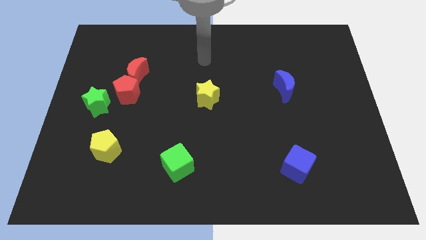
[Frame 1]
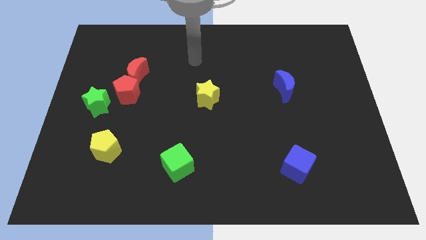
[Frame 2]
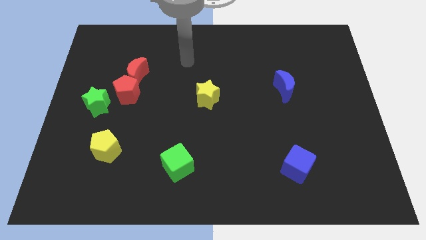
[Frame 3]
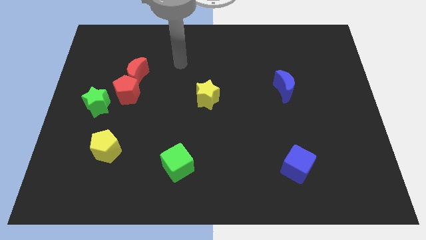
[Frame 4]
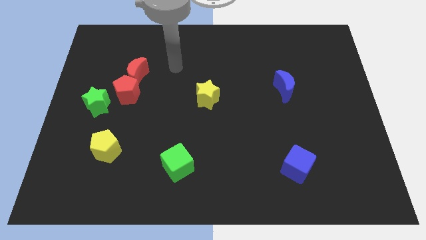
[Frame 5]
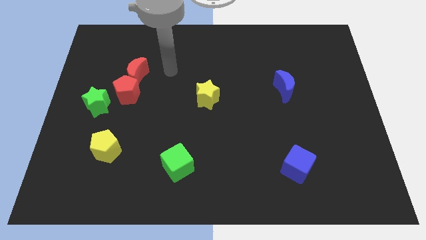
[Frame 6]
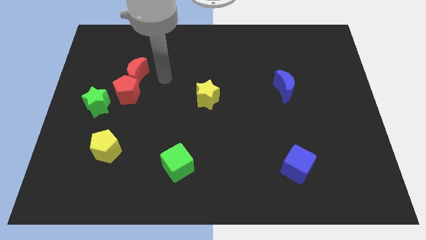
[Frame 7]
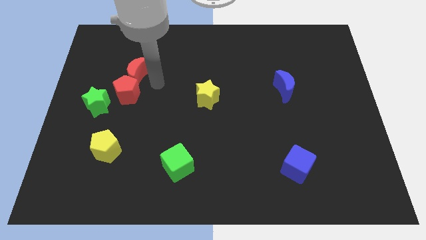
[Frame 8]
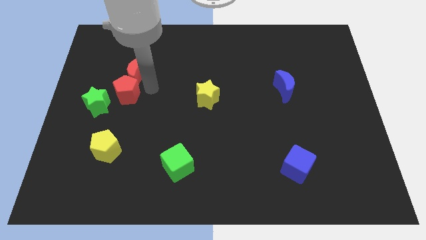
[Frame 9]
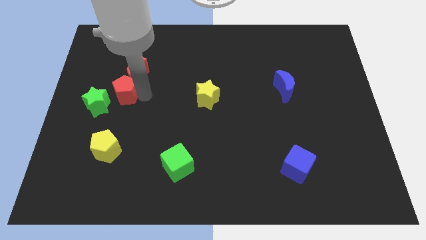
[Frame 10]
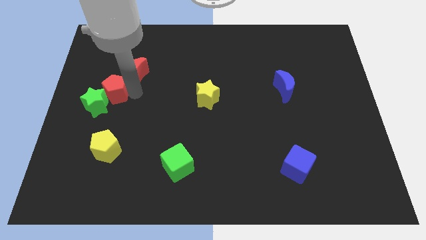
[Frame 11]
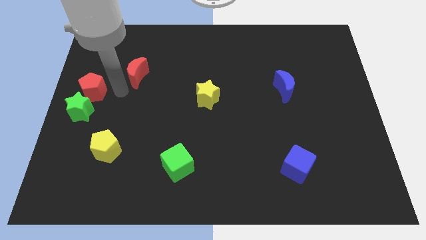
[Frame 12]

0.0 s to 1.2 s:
pull the red moon apart from the red pentagon

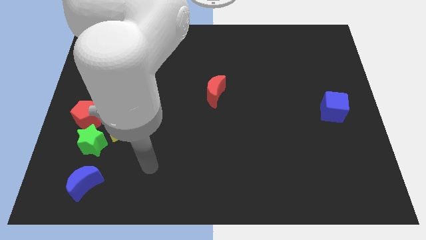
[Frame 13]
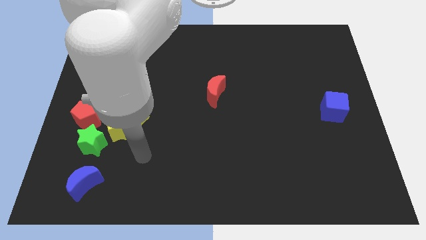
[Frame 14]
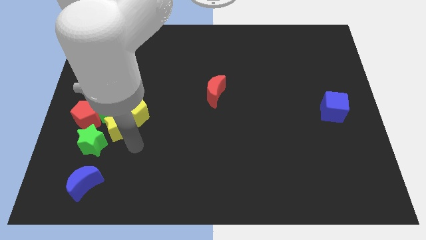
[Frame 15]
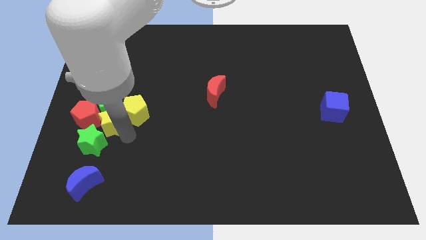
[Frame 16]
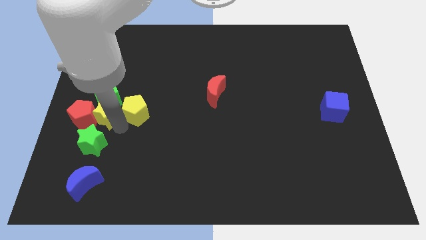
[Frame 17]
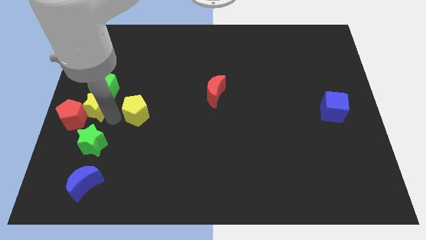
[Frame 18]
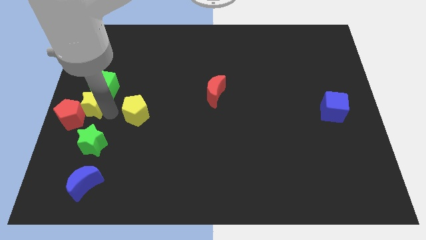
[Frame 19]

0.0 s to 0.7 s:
separate the yellow pentagon from the yellow star and green cube

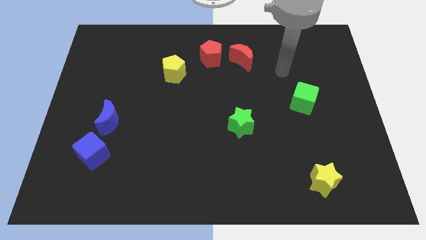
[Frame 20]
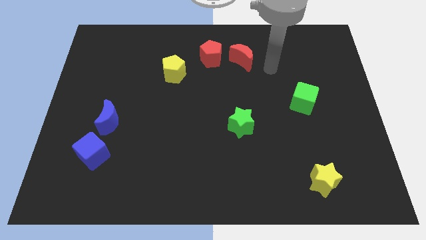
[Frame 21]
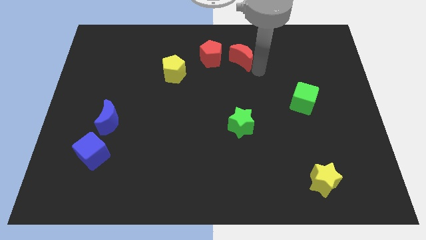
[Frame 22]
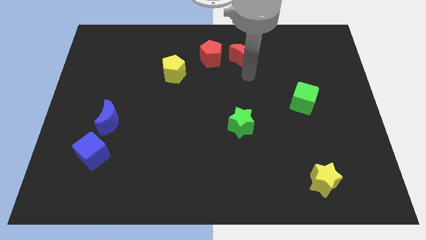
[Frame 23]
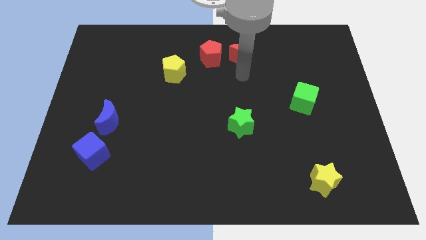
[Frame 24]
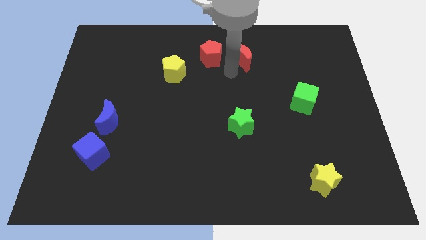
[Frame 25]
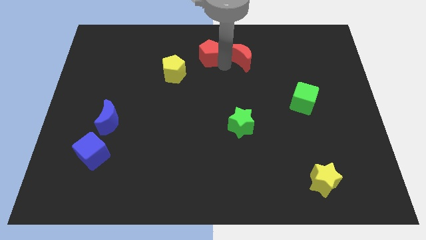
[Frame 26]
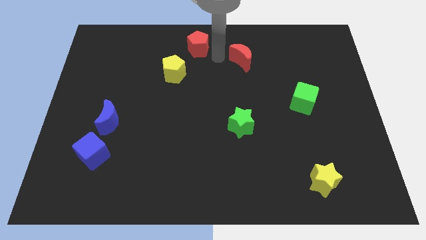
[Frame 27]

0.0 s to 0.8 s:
move the red moon away from the red pentagon

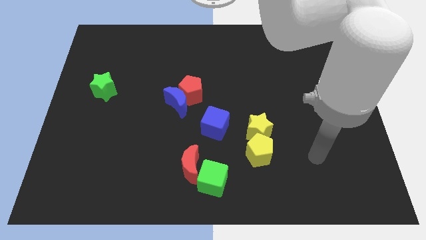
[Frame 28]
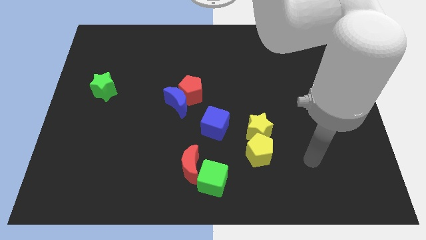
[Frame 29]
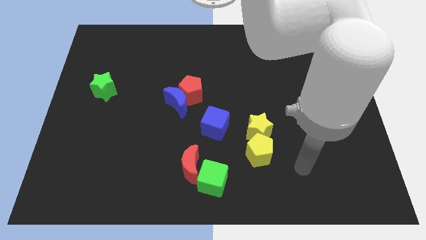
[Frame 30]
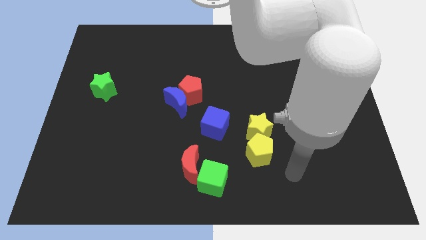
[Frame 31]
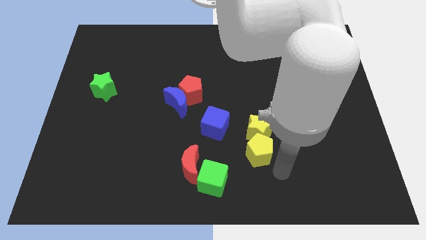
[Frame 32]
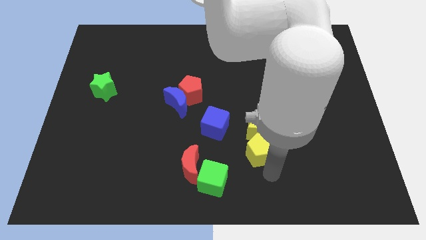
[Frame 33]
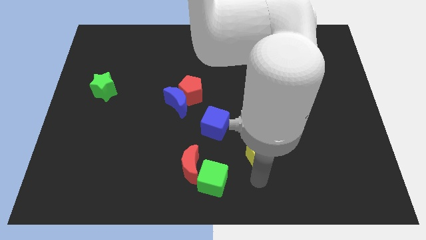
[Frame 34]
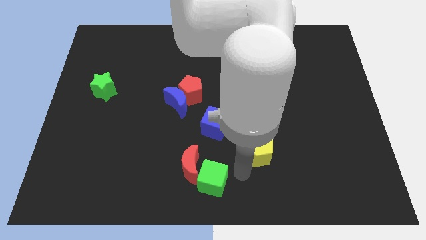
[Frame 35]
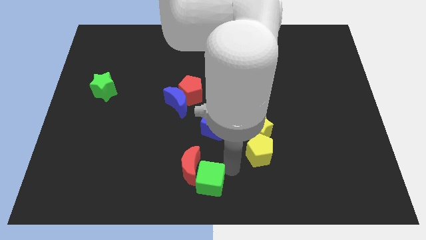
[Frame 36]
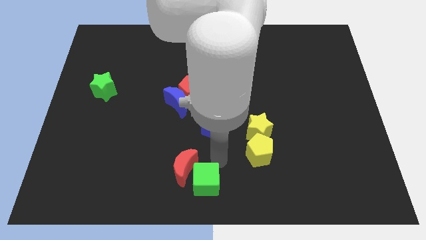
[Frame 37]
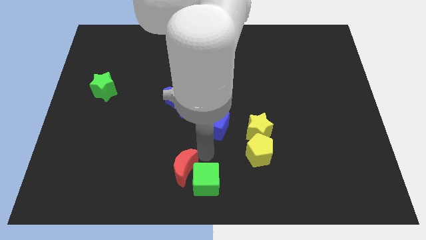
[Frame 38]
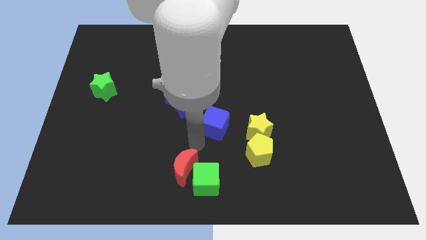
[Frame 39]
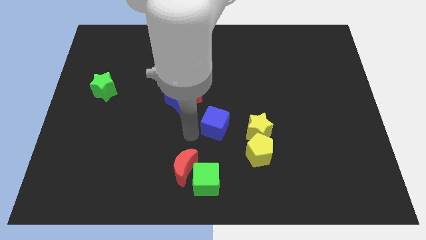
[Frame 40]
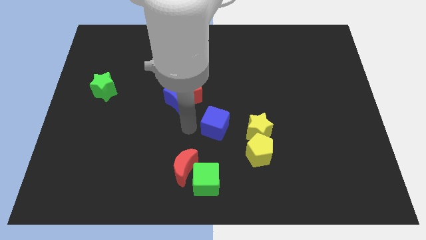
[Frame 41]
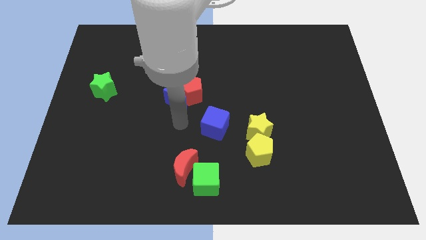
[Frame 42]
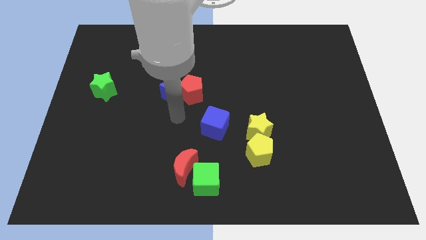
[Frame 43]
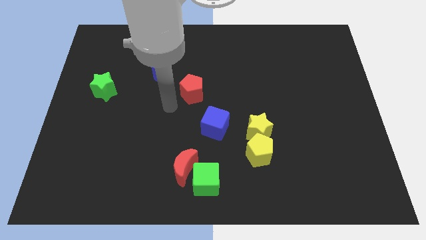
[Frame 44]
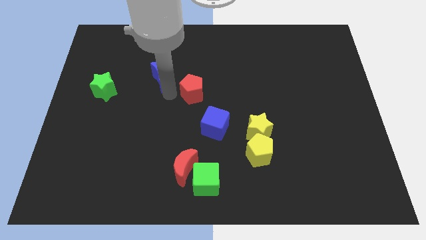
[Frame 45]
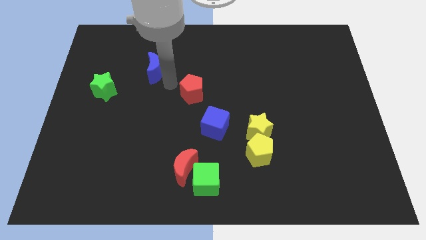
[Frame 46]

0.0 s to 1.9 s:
pull the red pentagon apart from the blue moon

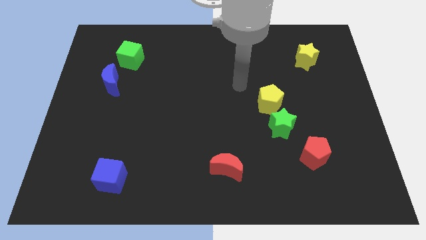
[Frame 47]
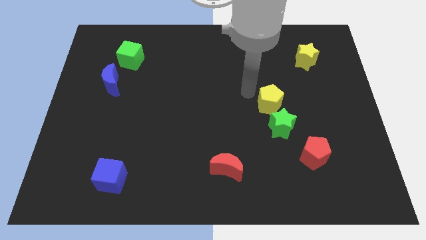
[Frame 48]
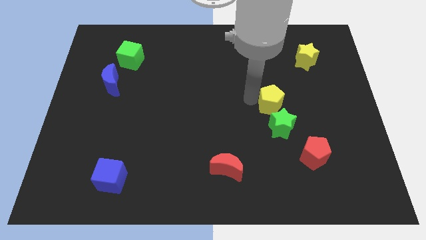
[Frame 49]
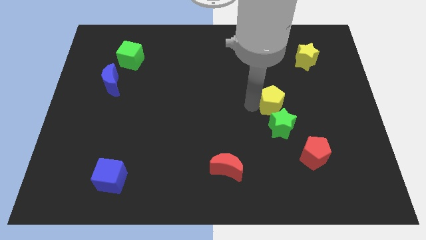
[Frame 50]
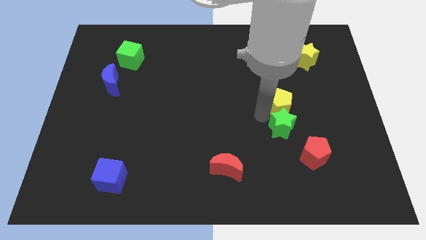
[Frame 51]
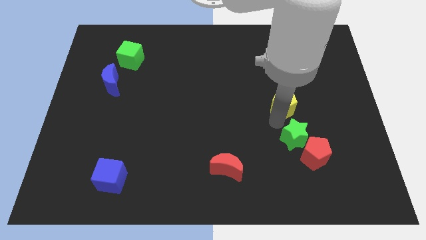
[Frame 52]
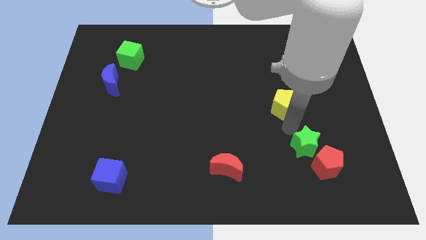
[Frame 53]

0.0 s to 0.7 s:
move the yellow pentagon away from the green star

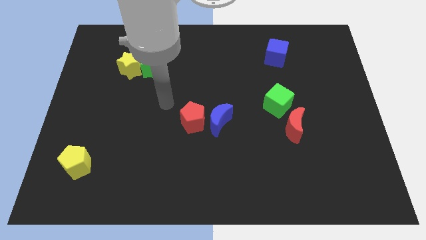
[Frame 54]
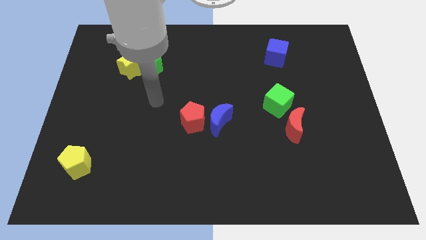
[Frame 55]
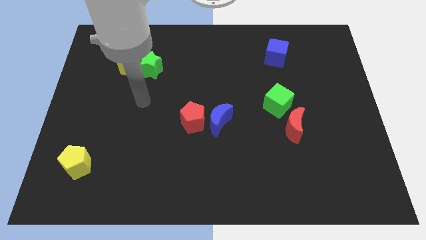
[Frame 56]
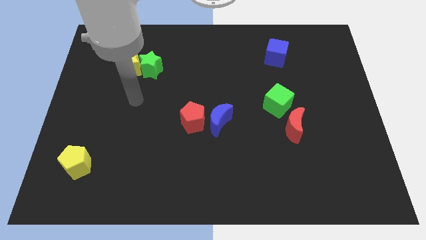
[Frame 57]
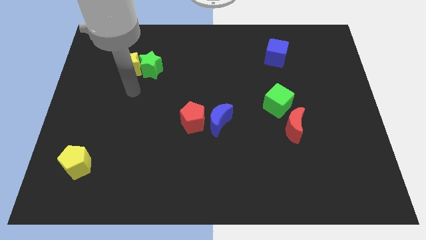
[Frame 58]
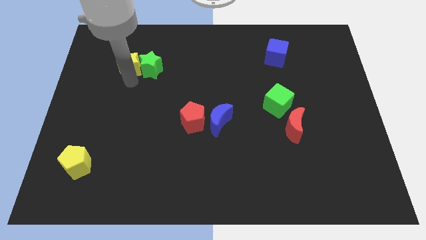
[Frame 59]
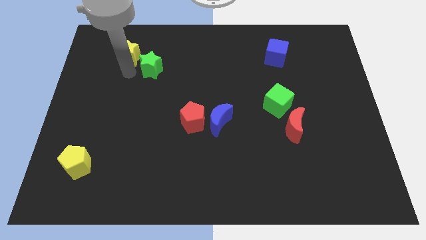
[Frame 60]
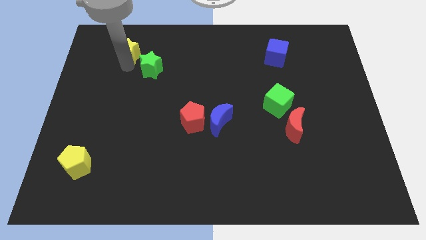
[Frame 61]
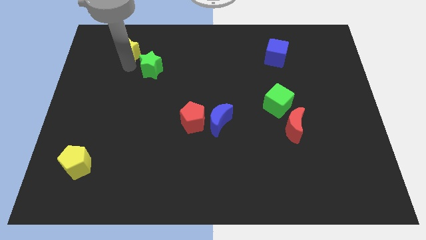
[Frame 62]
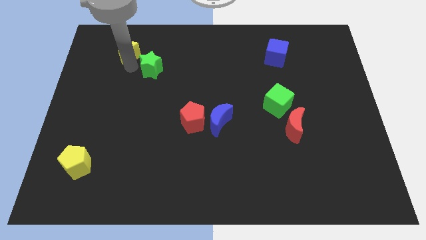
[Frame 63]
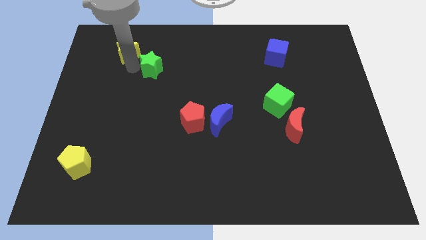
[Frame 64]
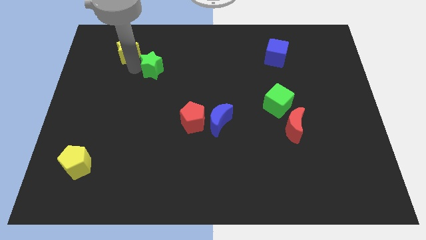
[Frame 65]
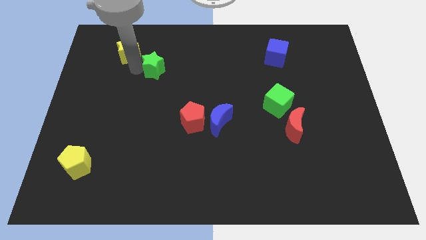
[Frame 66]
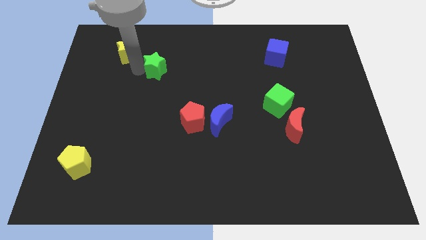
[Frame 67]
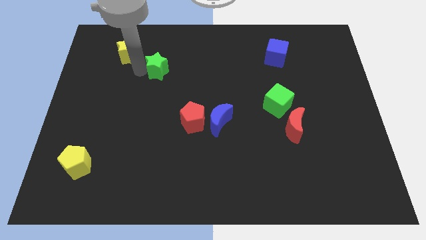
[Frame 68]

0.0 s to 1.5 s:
move the green star away from the yellow star

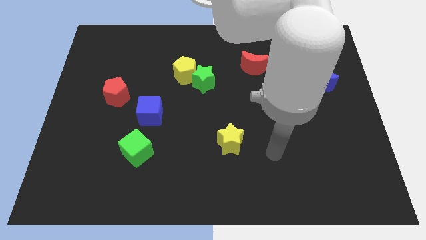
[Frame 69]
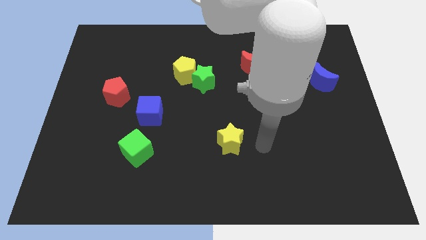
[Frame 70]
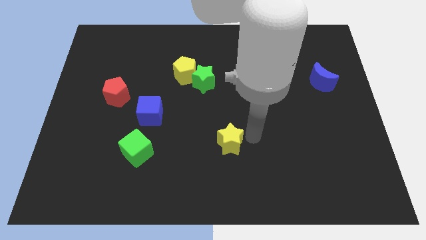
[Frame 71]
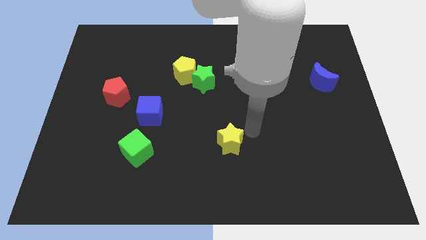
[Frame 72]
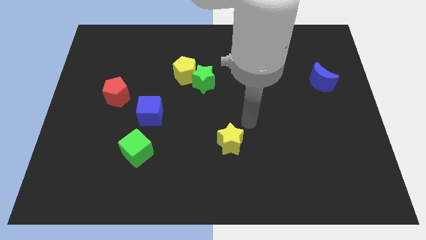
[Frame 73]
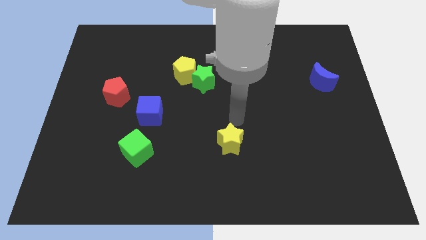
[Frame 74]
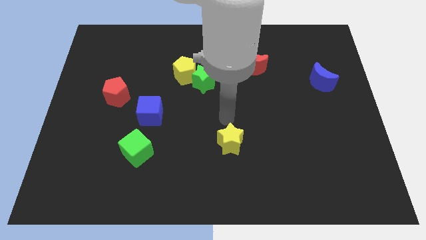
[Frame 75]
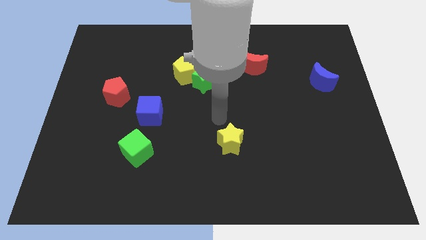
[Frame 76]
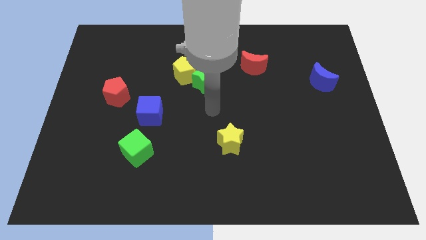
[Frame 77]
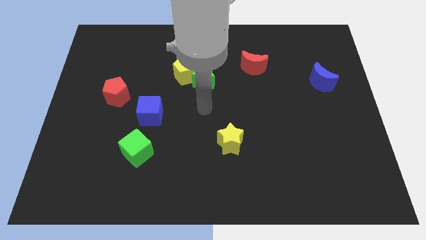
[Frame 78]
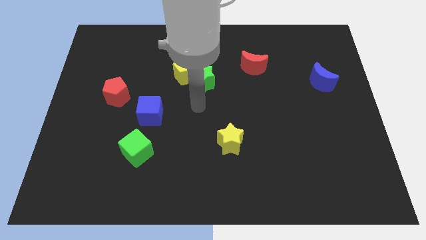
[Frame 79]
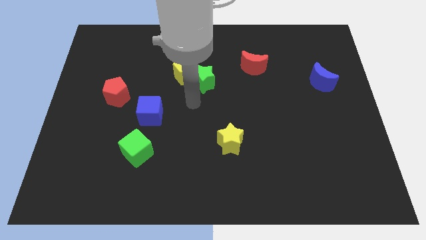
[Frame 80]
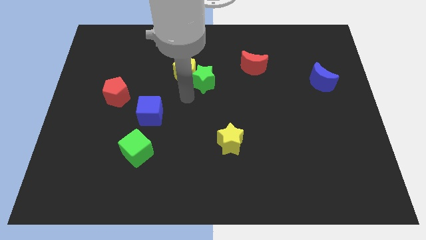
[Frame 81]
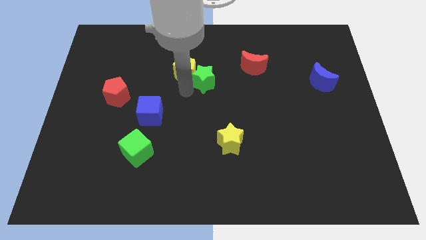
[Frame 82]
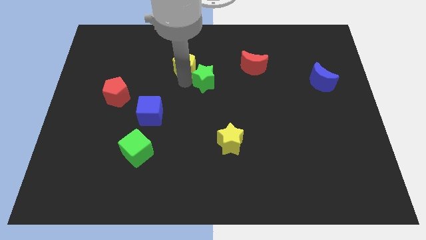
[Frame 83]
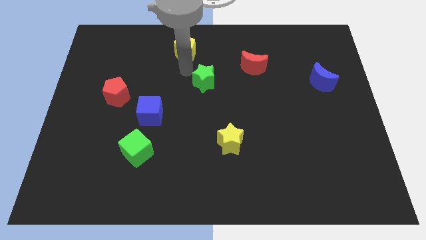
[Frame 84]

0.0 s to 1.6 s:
pull the green star apart from the yellow pentagon

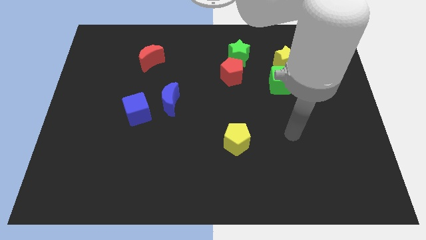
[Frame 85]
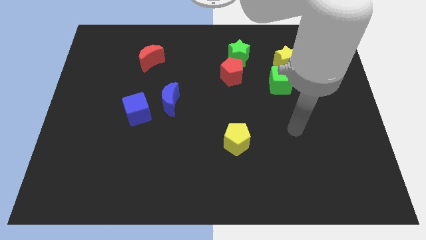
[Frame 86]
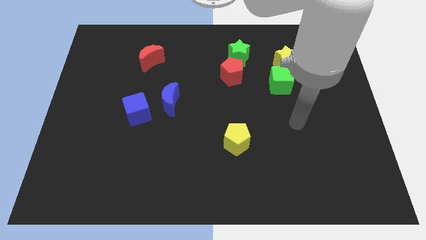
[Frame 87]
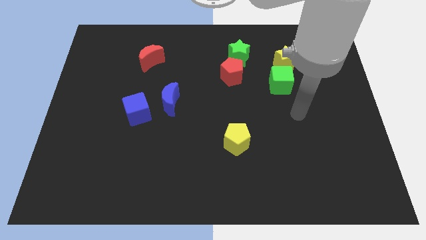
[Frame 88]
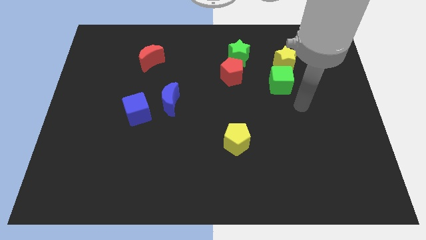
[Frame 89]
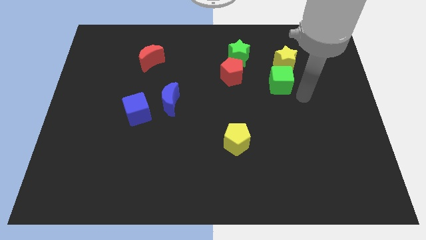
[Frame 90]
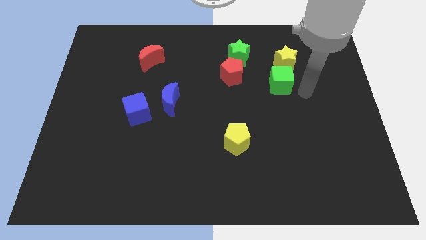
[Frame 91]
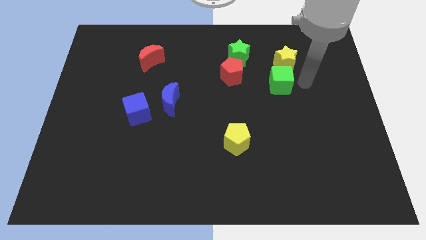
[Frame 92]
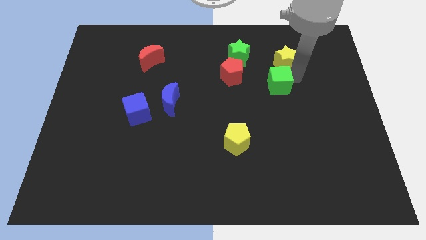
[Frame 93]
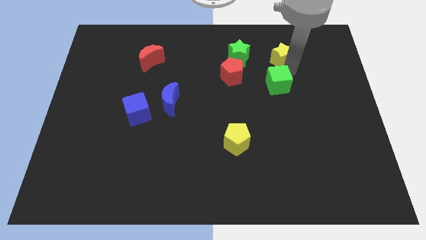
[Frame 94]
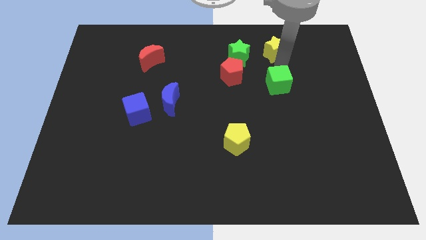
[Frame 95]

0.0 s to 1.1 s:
pull the green cube apart from the yellow star
